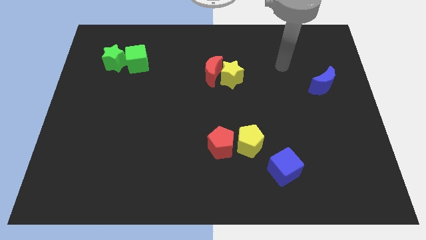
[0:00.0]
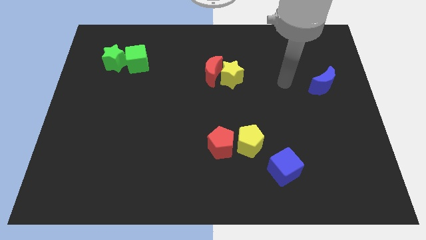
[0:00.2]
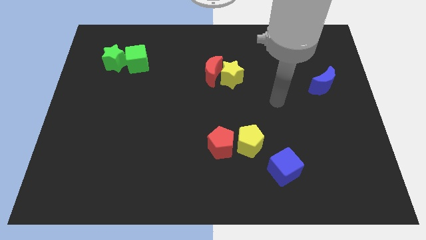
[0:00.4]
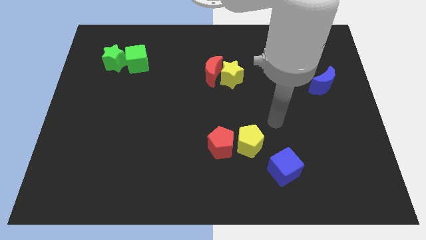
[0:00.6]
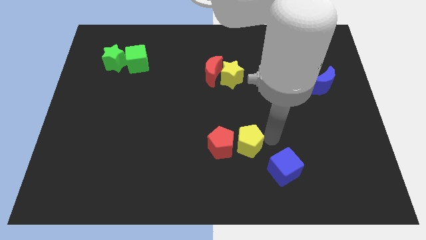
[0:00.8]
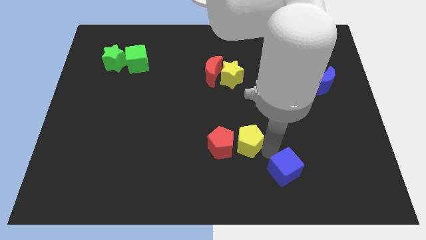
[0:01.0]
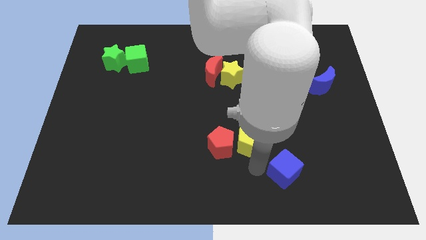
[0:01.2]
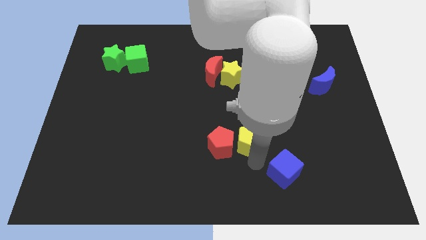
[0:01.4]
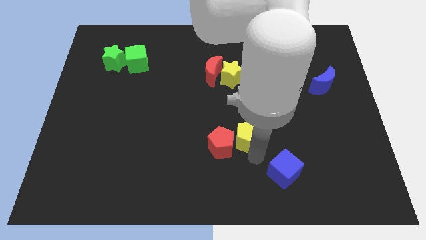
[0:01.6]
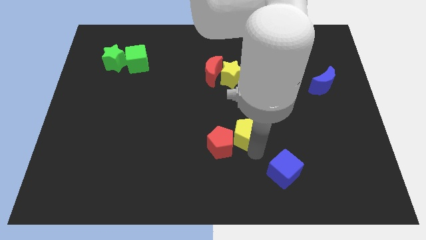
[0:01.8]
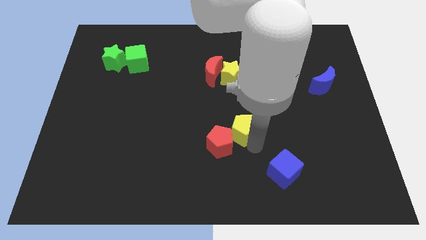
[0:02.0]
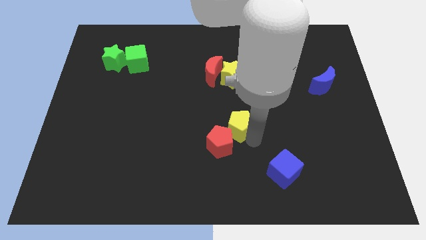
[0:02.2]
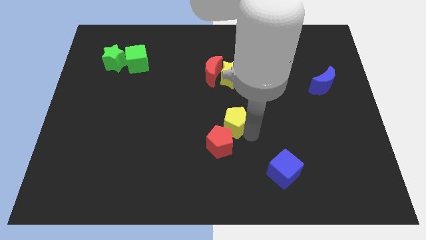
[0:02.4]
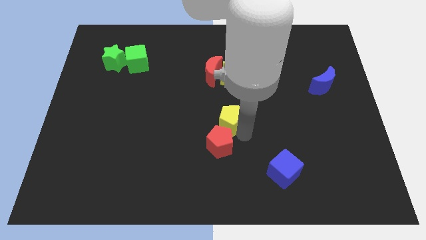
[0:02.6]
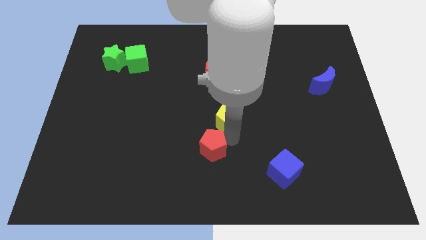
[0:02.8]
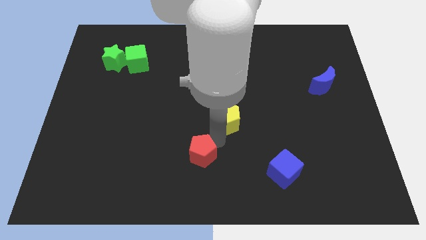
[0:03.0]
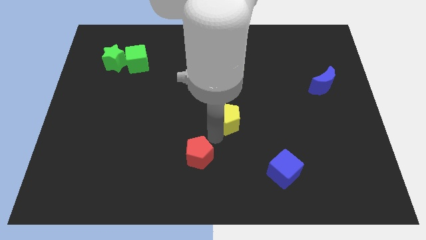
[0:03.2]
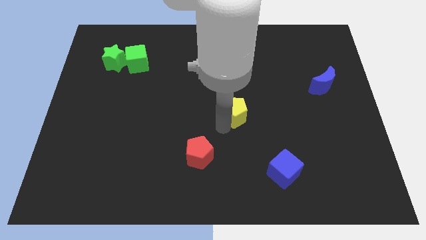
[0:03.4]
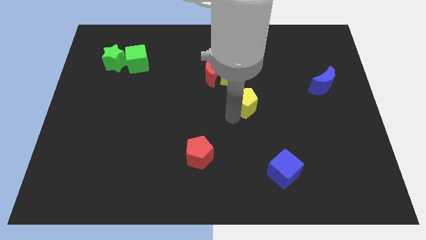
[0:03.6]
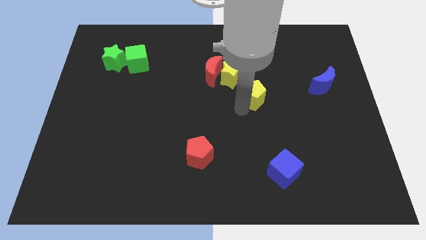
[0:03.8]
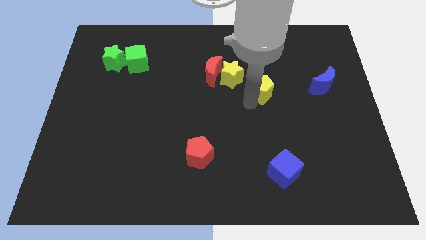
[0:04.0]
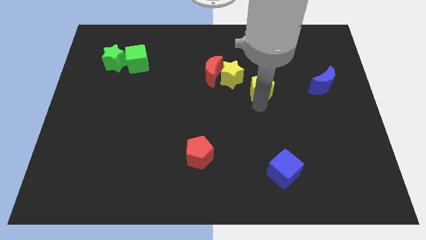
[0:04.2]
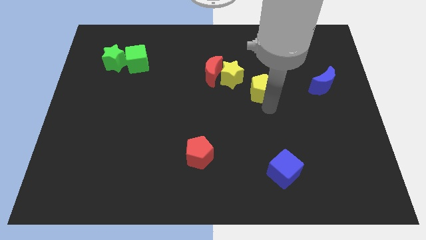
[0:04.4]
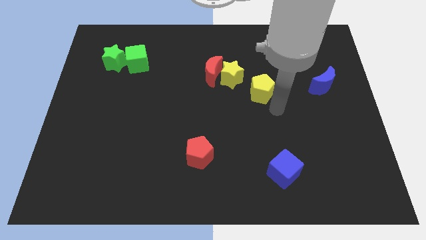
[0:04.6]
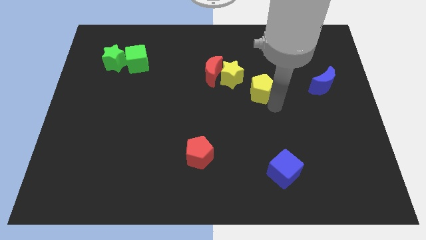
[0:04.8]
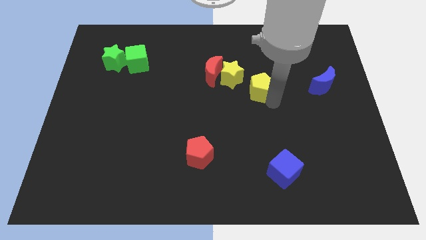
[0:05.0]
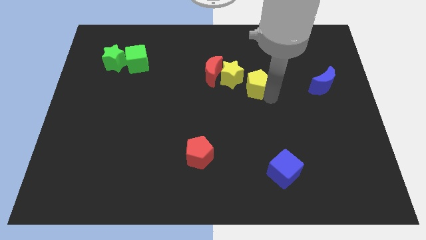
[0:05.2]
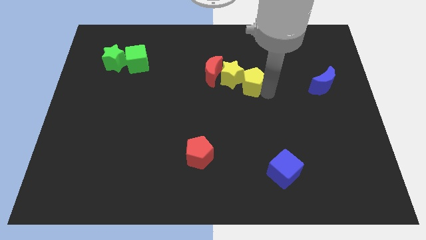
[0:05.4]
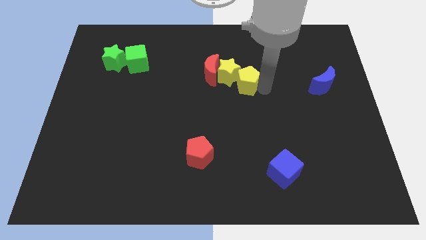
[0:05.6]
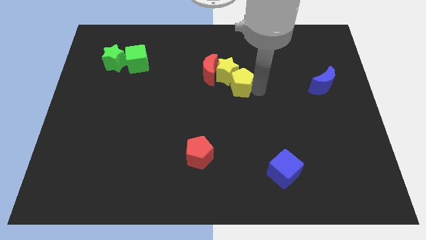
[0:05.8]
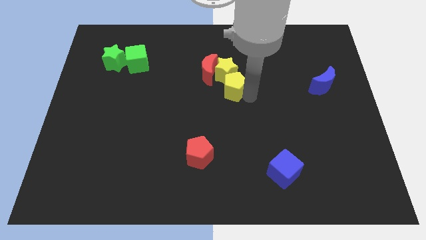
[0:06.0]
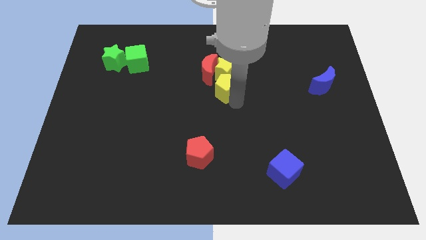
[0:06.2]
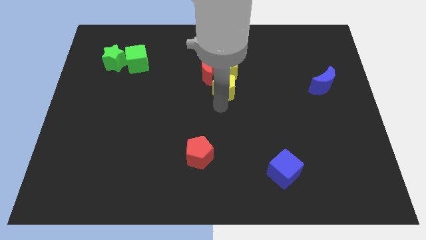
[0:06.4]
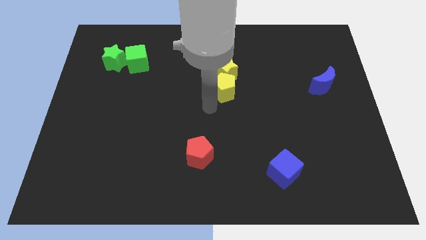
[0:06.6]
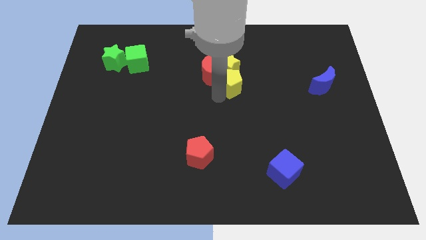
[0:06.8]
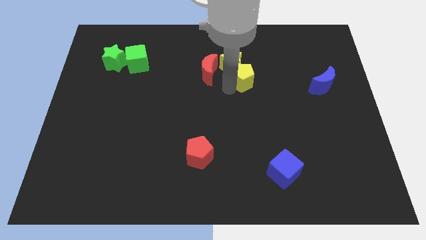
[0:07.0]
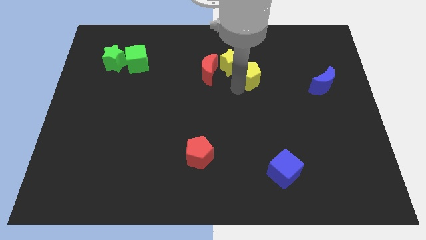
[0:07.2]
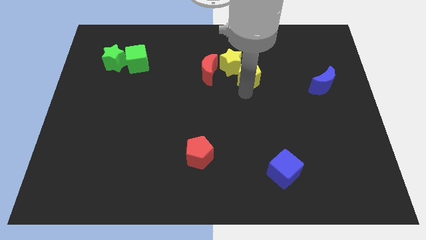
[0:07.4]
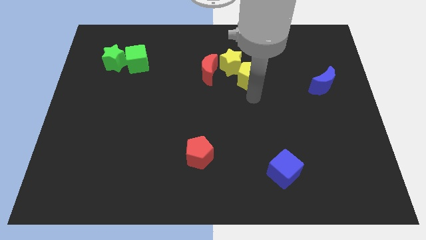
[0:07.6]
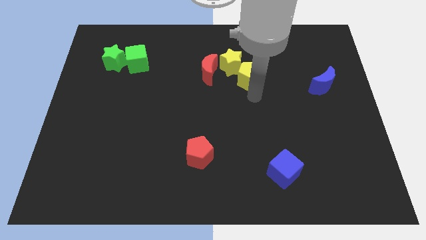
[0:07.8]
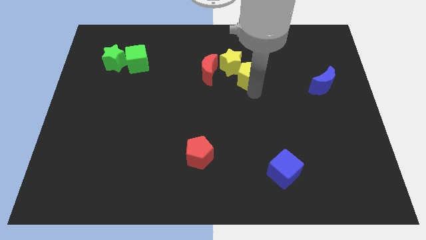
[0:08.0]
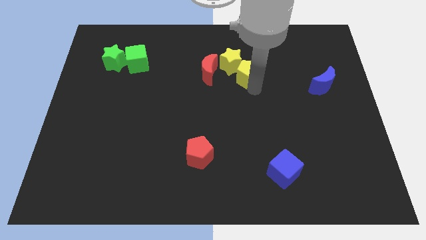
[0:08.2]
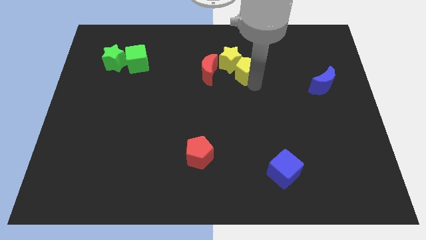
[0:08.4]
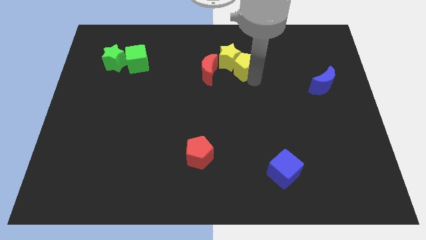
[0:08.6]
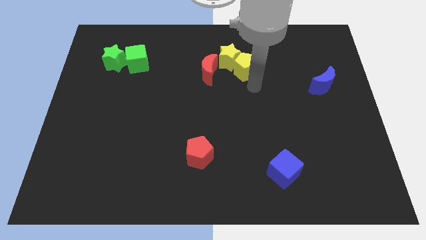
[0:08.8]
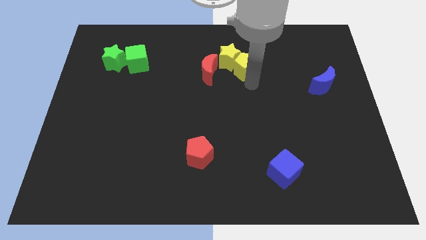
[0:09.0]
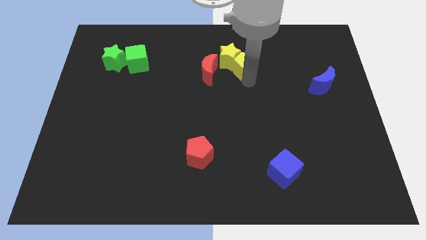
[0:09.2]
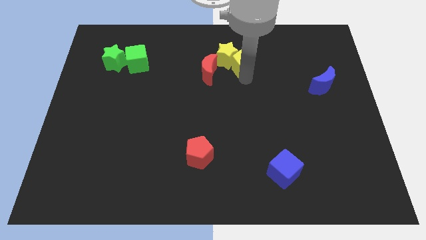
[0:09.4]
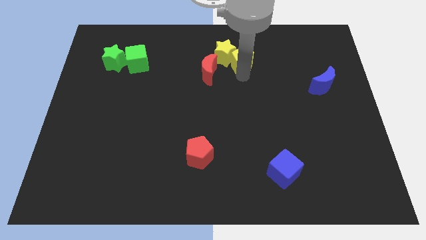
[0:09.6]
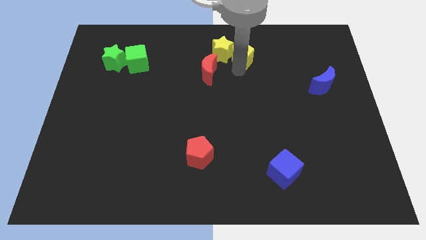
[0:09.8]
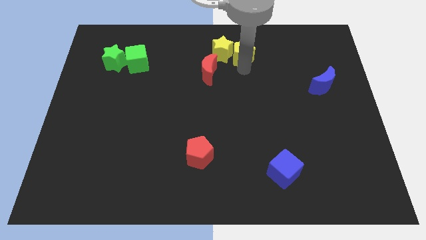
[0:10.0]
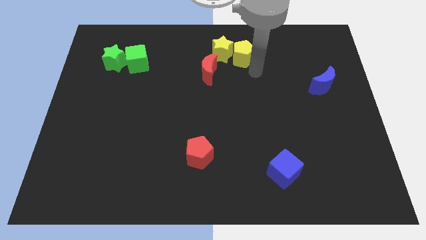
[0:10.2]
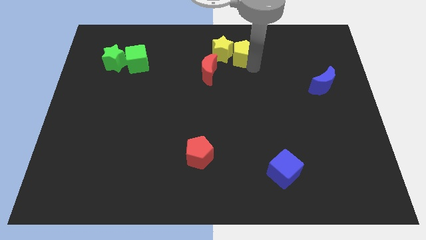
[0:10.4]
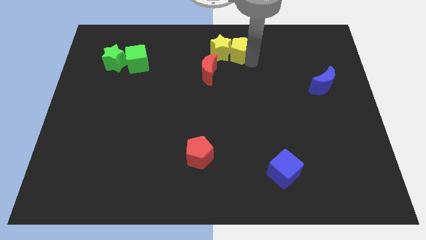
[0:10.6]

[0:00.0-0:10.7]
slide the yellow pentagon to the towards your base

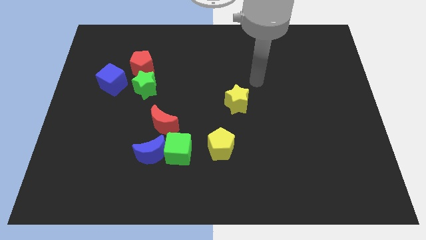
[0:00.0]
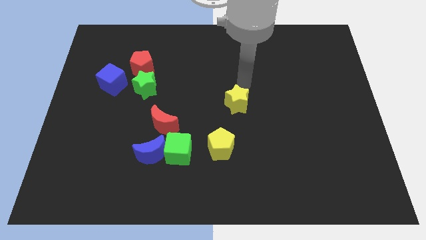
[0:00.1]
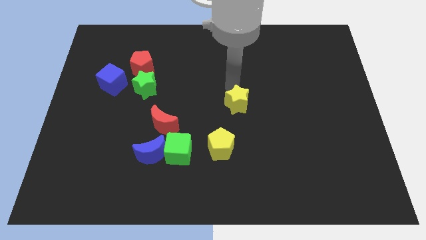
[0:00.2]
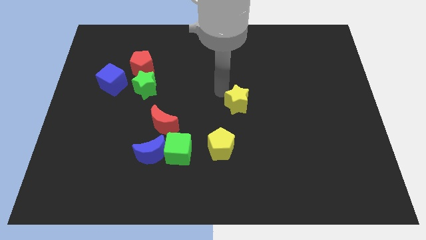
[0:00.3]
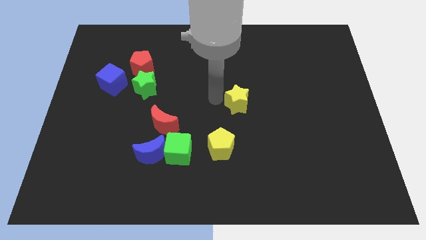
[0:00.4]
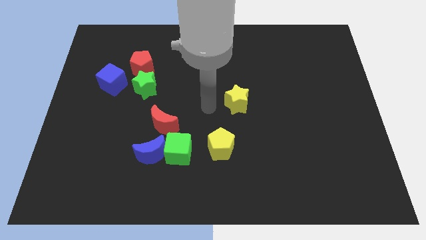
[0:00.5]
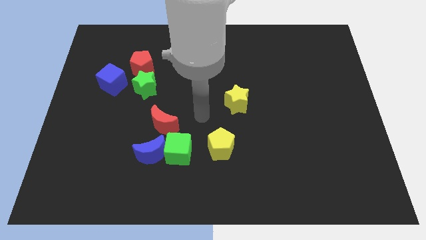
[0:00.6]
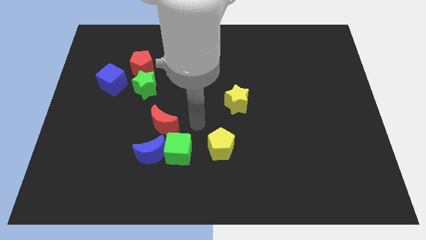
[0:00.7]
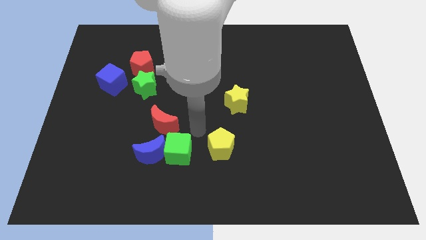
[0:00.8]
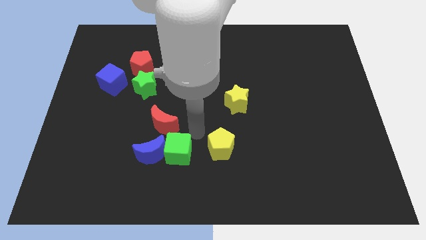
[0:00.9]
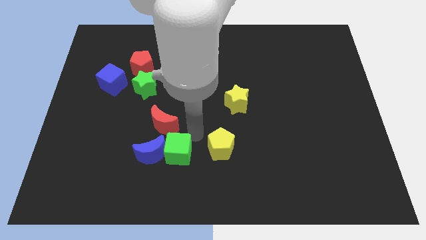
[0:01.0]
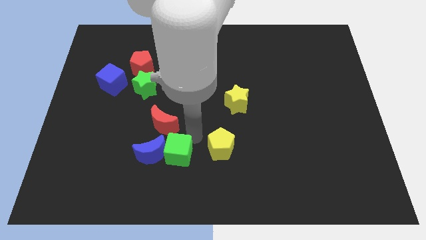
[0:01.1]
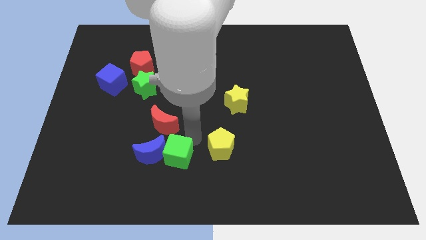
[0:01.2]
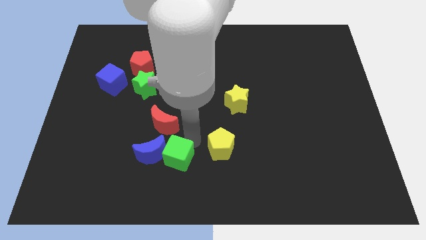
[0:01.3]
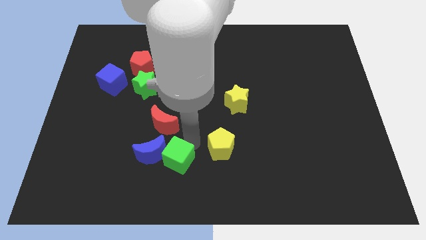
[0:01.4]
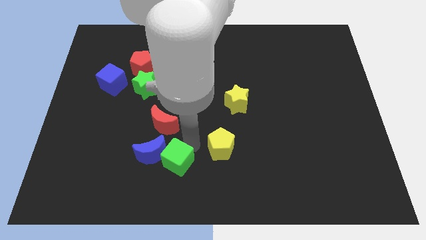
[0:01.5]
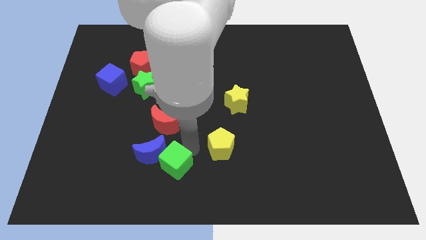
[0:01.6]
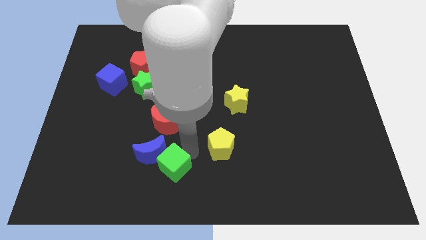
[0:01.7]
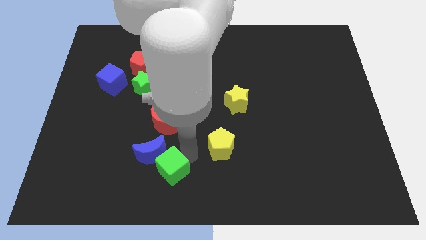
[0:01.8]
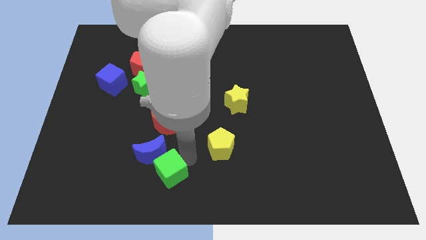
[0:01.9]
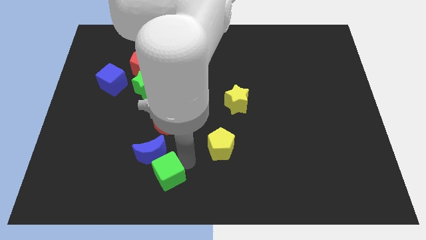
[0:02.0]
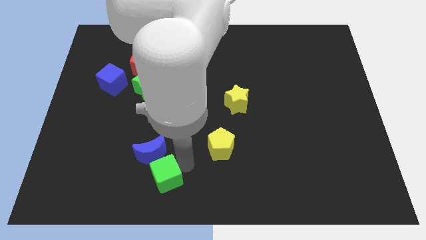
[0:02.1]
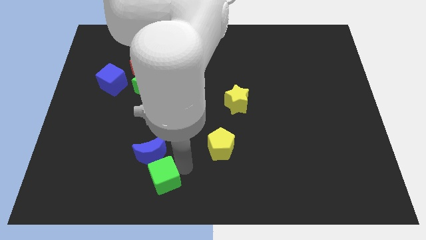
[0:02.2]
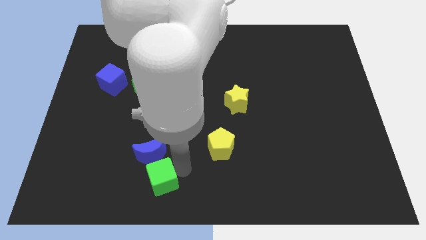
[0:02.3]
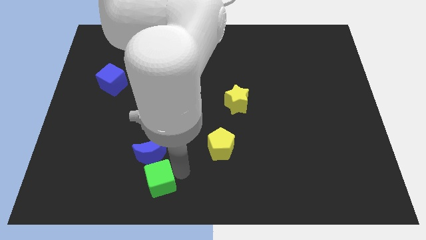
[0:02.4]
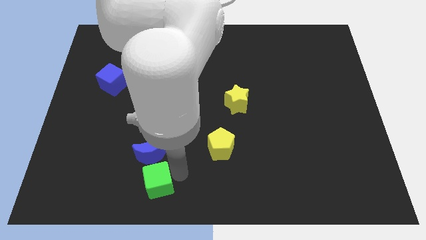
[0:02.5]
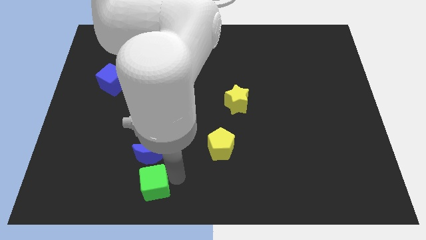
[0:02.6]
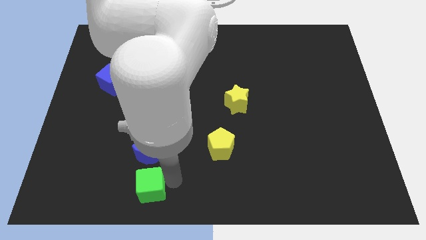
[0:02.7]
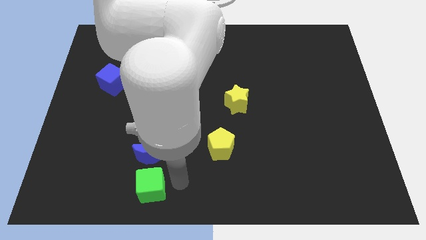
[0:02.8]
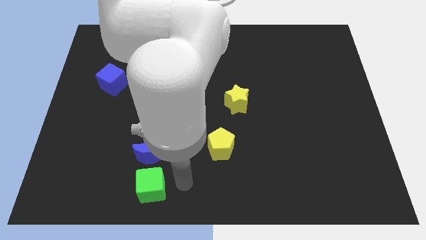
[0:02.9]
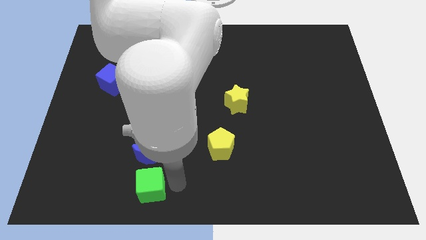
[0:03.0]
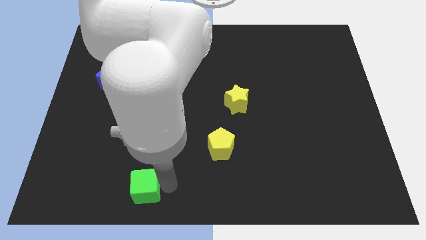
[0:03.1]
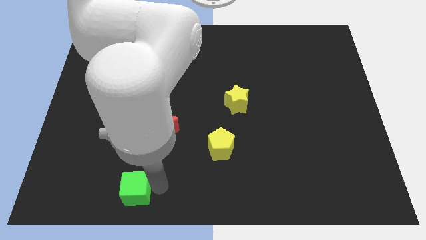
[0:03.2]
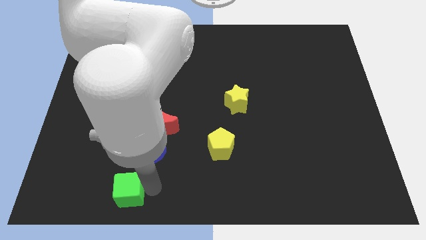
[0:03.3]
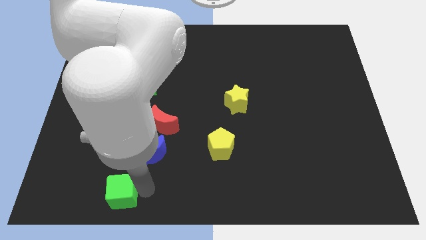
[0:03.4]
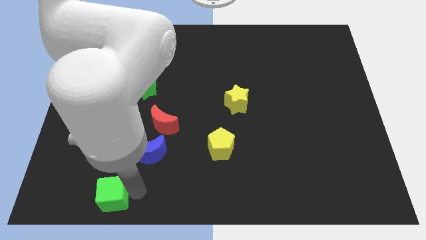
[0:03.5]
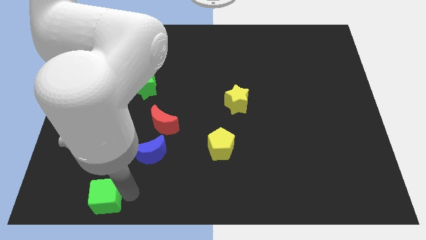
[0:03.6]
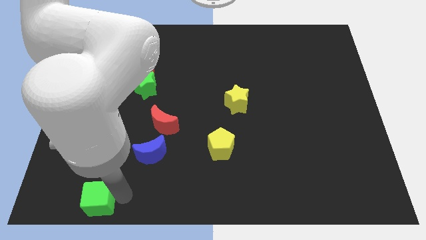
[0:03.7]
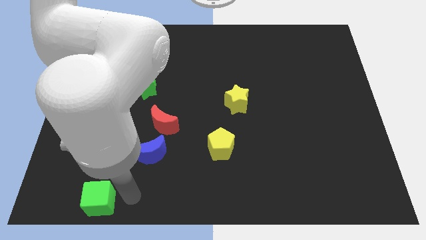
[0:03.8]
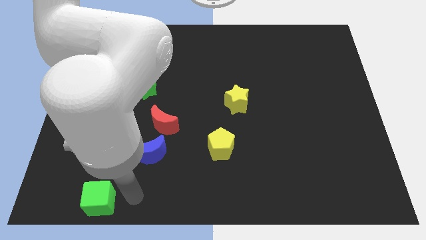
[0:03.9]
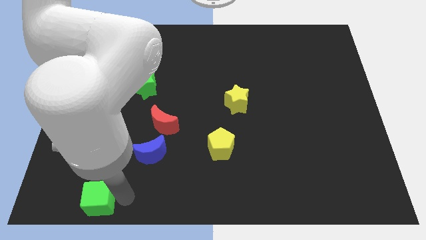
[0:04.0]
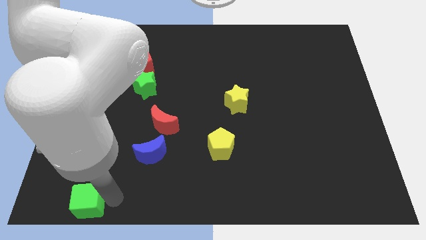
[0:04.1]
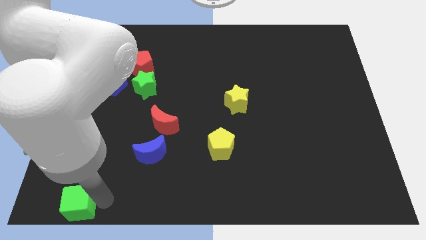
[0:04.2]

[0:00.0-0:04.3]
move the green cube to the bottom left corner
